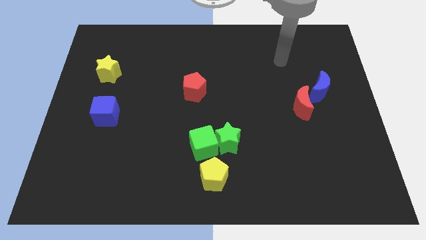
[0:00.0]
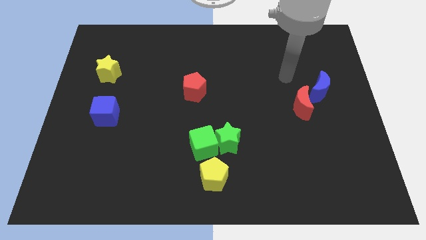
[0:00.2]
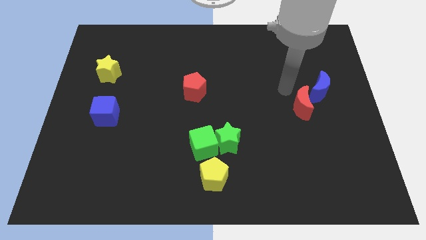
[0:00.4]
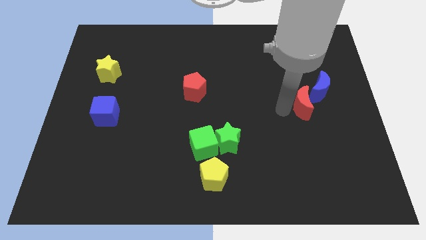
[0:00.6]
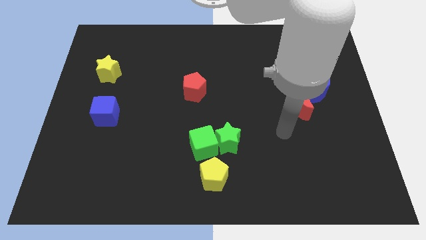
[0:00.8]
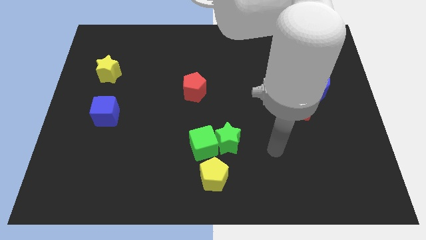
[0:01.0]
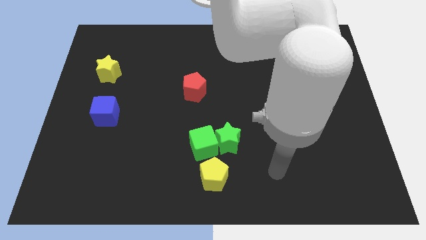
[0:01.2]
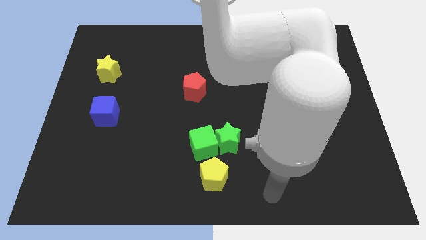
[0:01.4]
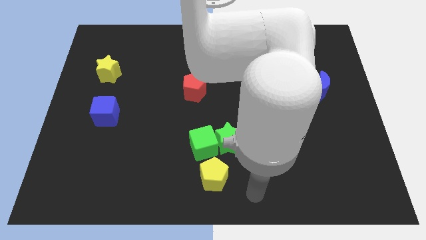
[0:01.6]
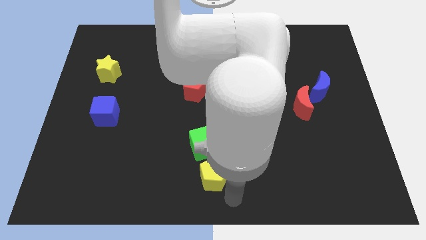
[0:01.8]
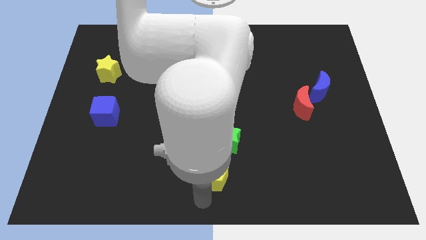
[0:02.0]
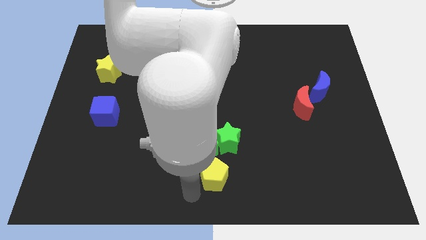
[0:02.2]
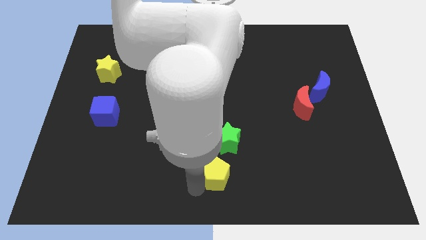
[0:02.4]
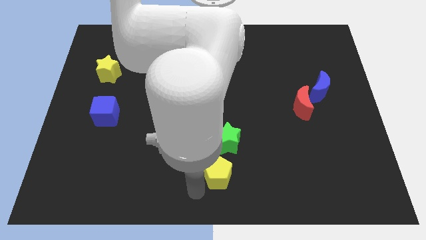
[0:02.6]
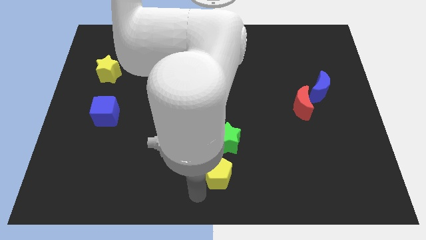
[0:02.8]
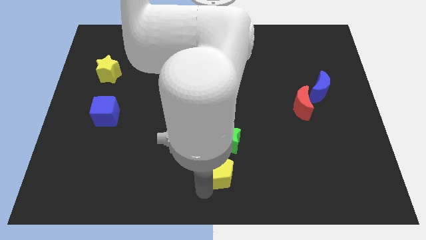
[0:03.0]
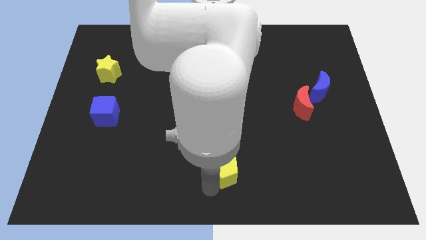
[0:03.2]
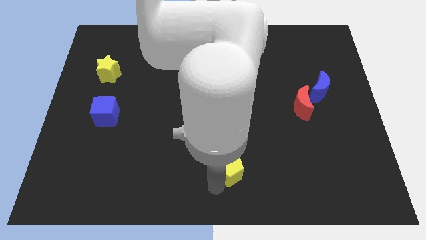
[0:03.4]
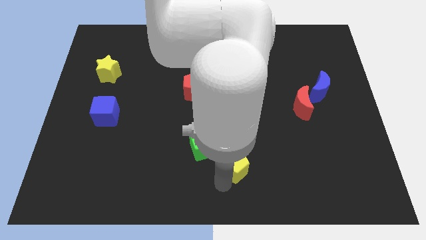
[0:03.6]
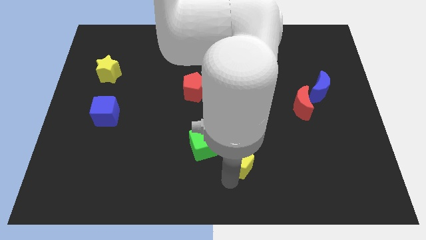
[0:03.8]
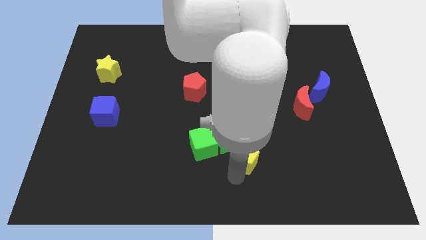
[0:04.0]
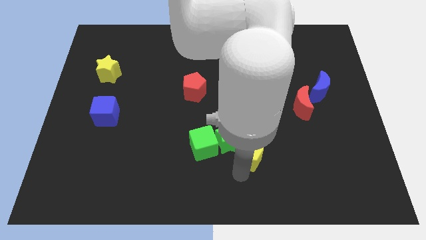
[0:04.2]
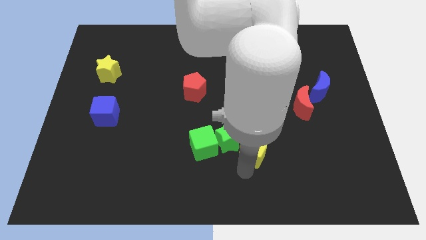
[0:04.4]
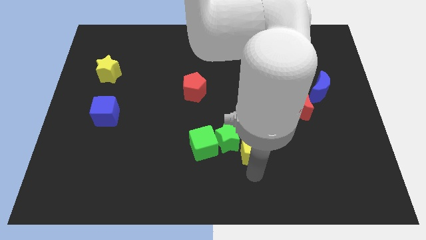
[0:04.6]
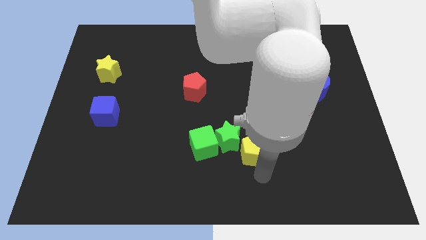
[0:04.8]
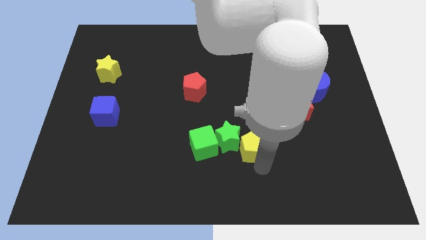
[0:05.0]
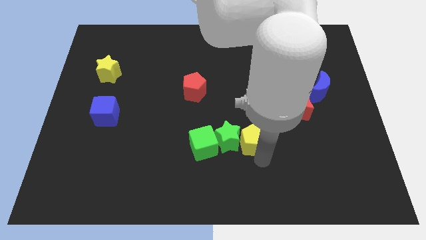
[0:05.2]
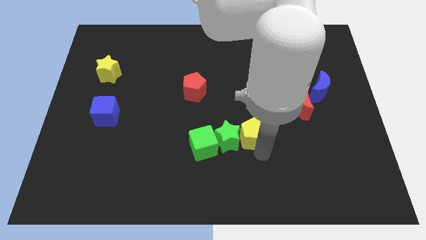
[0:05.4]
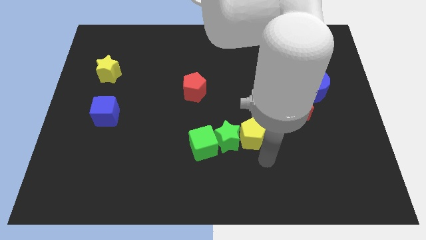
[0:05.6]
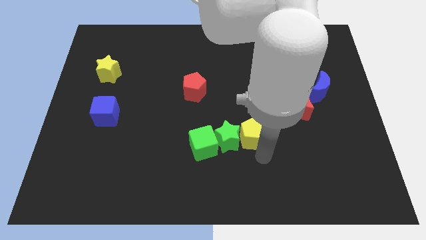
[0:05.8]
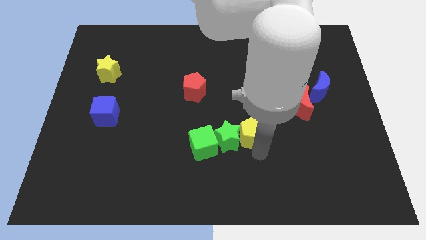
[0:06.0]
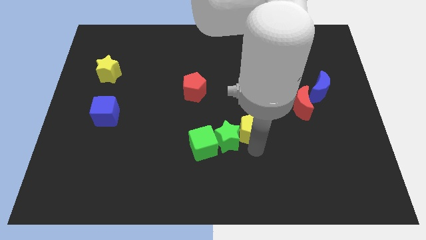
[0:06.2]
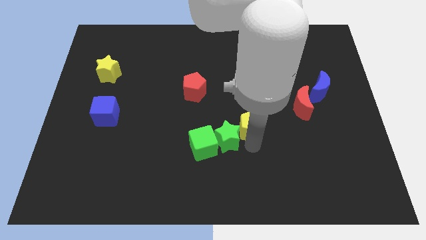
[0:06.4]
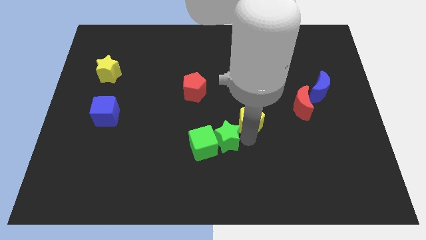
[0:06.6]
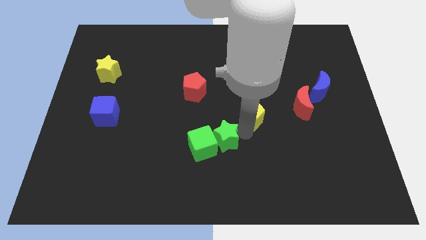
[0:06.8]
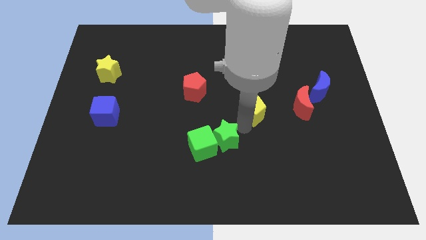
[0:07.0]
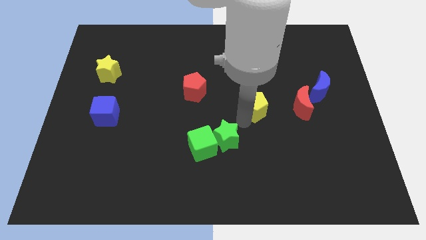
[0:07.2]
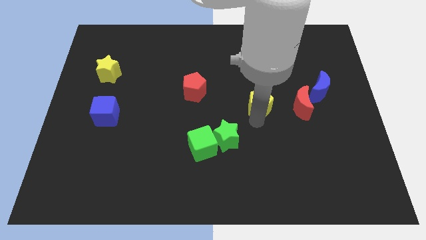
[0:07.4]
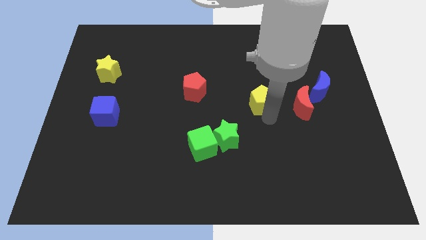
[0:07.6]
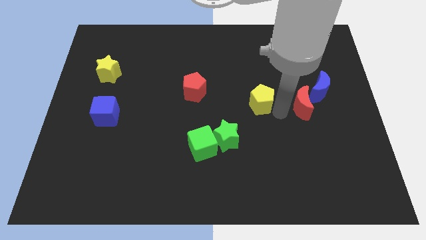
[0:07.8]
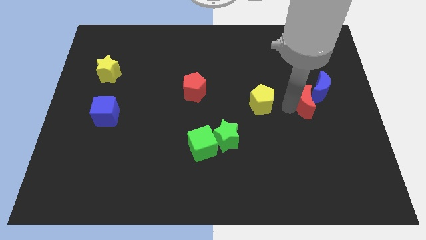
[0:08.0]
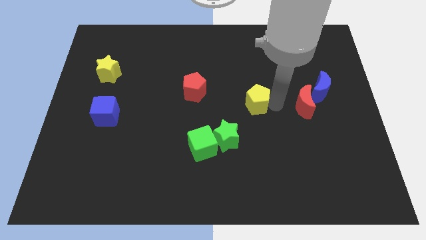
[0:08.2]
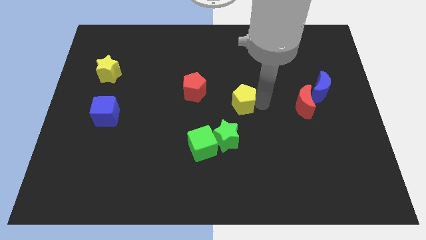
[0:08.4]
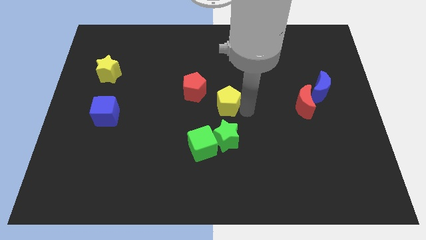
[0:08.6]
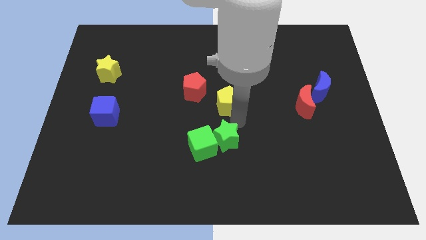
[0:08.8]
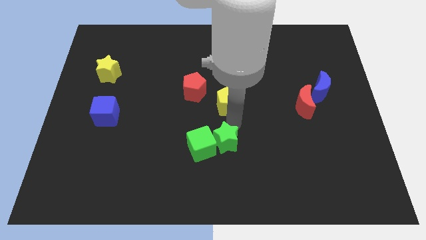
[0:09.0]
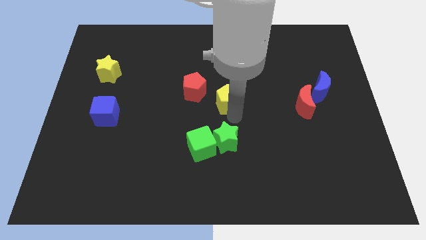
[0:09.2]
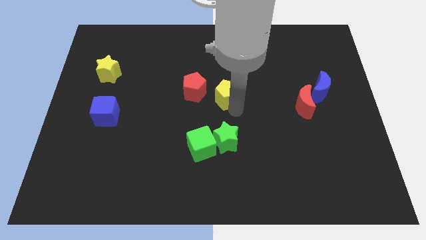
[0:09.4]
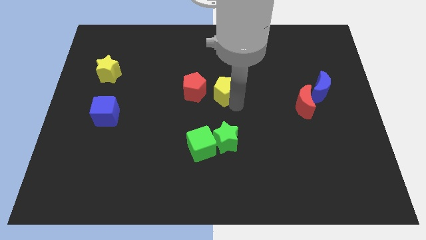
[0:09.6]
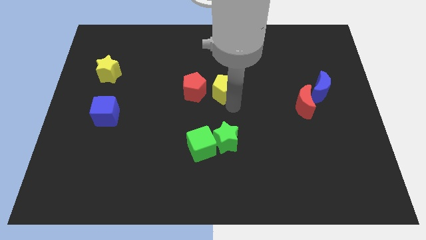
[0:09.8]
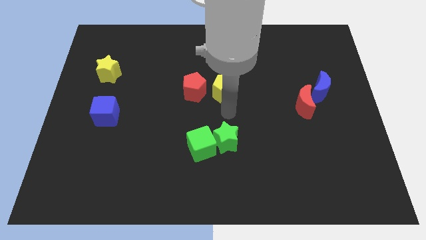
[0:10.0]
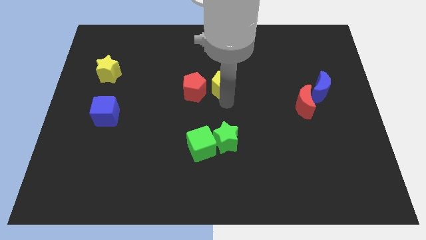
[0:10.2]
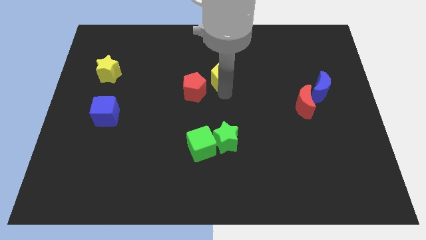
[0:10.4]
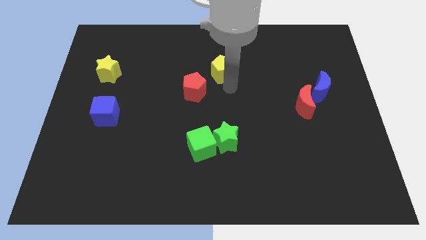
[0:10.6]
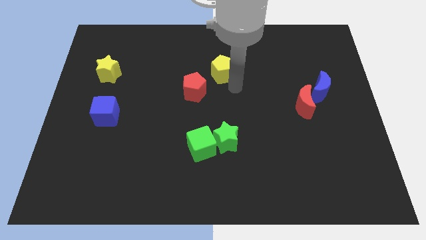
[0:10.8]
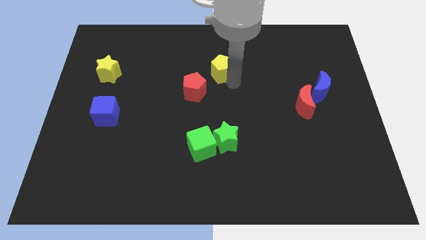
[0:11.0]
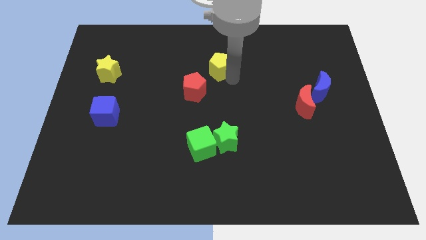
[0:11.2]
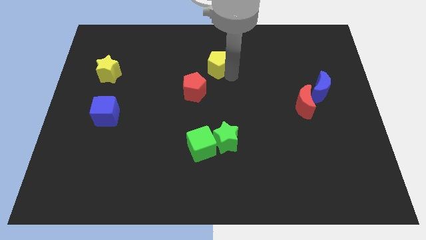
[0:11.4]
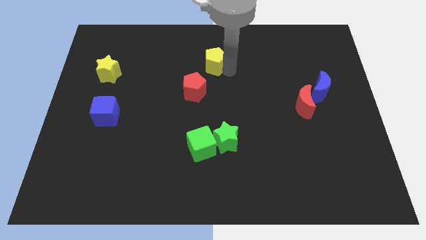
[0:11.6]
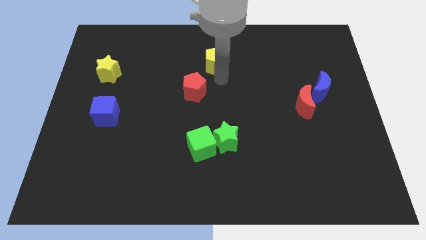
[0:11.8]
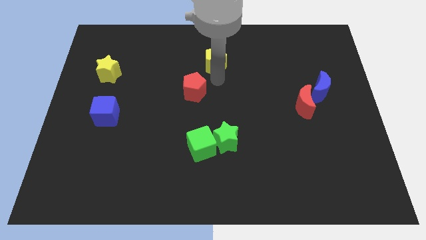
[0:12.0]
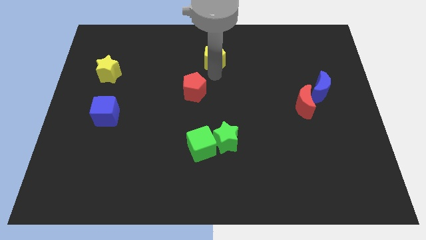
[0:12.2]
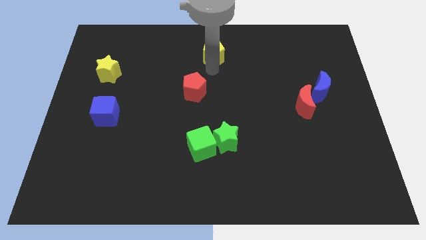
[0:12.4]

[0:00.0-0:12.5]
move the yellow pentagon to the top side
